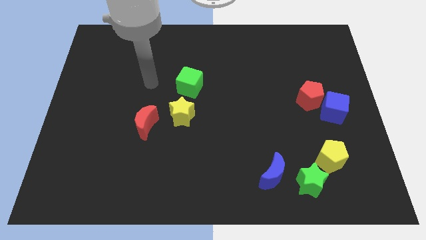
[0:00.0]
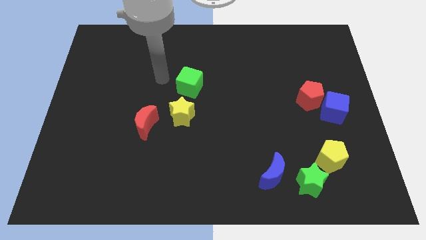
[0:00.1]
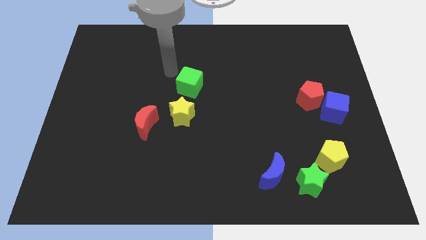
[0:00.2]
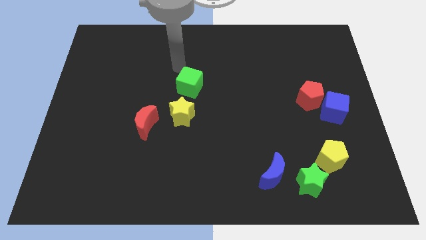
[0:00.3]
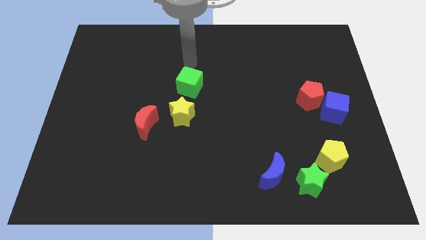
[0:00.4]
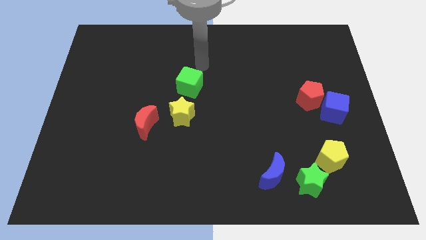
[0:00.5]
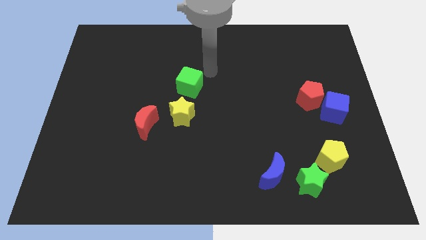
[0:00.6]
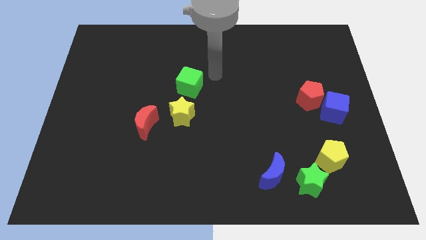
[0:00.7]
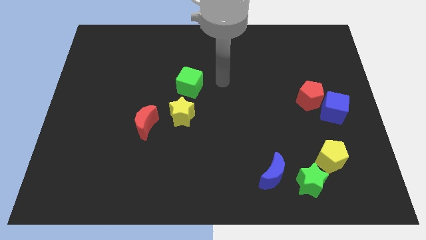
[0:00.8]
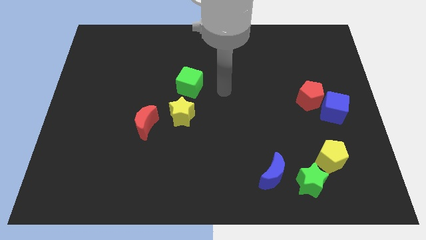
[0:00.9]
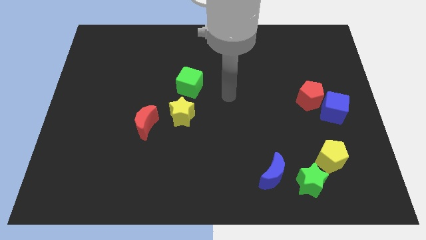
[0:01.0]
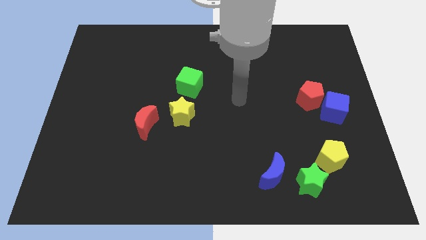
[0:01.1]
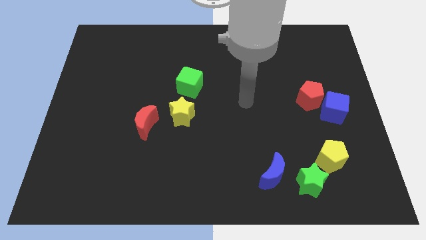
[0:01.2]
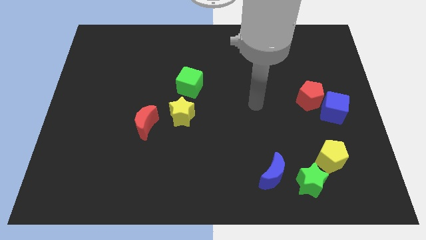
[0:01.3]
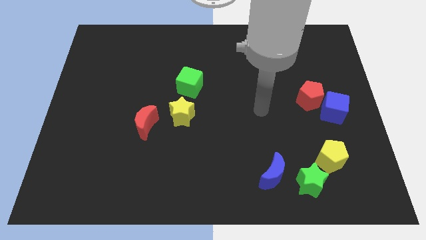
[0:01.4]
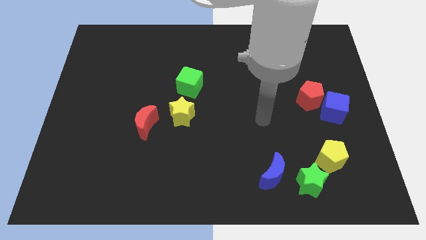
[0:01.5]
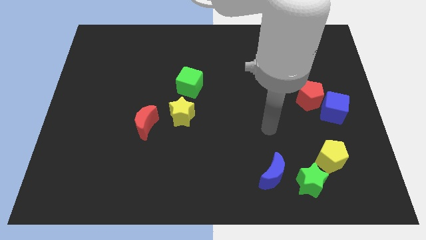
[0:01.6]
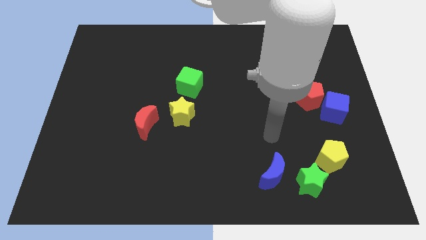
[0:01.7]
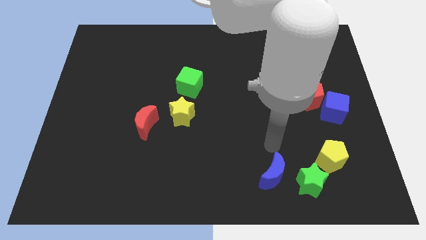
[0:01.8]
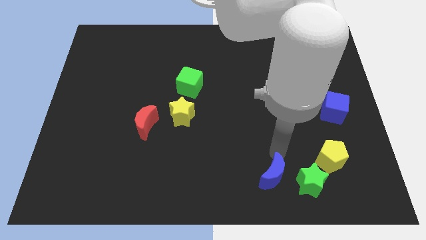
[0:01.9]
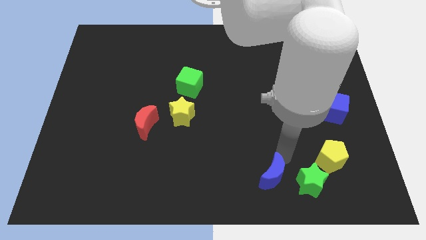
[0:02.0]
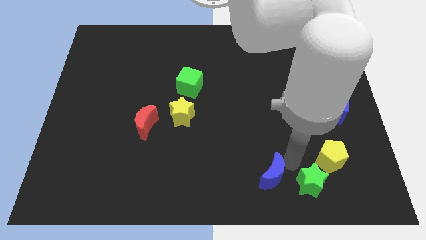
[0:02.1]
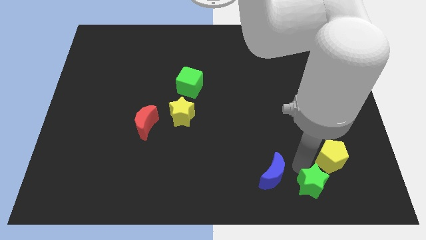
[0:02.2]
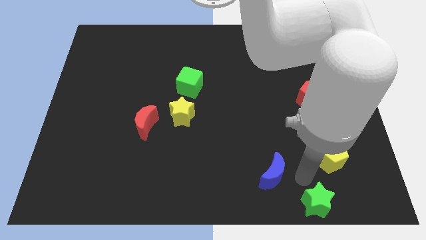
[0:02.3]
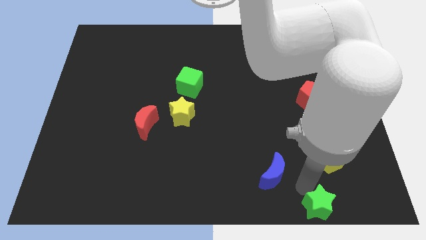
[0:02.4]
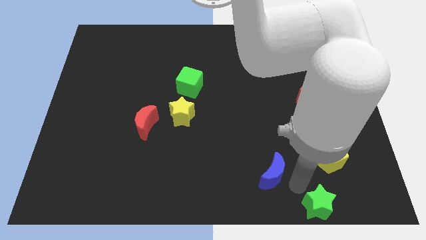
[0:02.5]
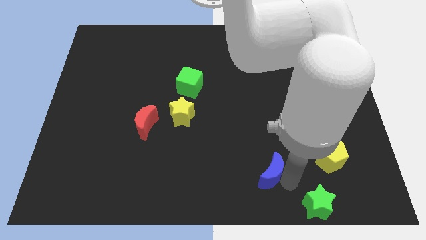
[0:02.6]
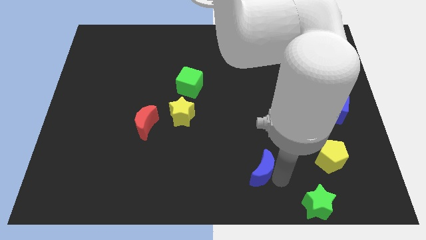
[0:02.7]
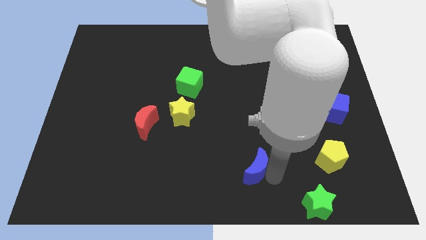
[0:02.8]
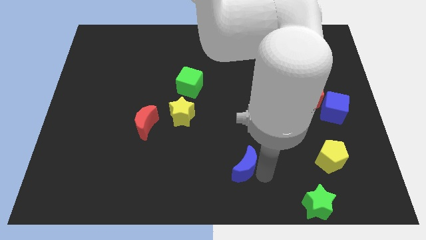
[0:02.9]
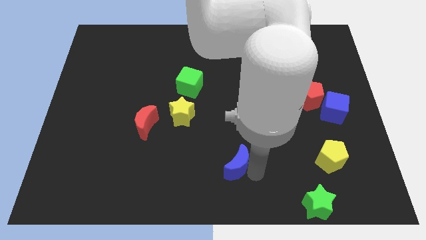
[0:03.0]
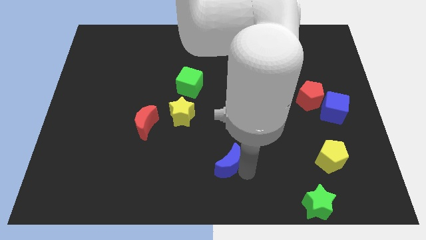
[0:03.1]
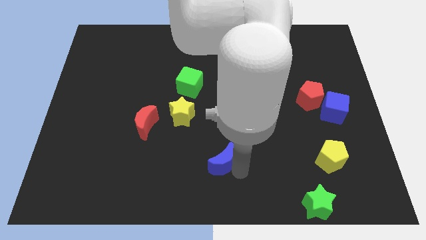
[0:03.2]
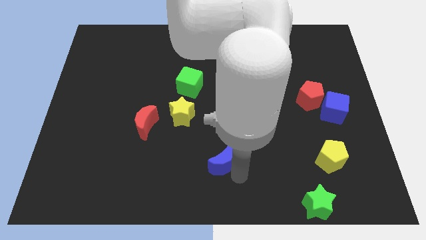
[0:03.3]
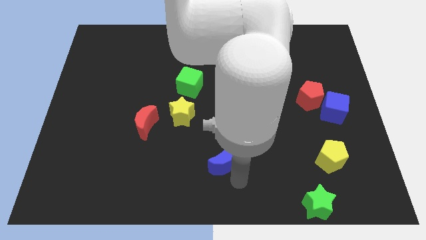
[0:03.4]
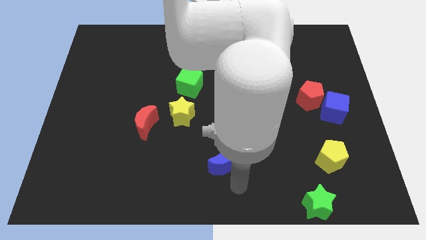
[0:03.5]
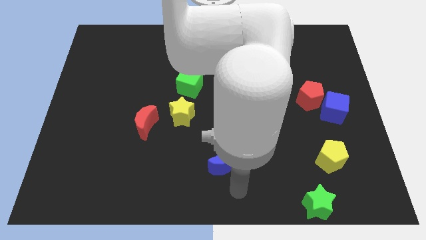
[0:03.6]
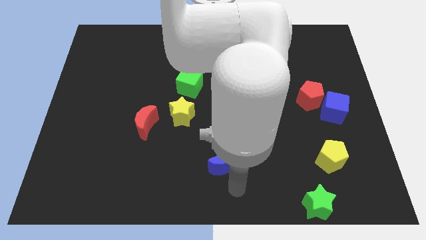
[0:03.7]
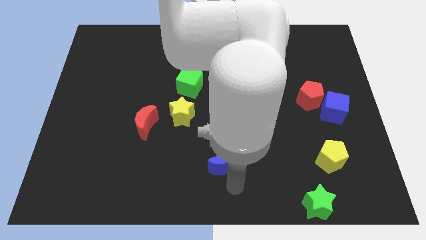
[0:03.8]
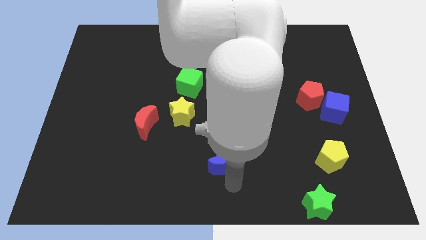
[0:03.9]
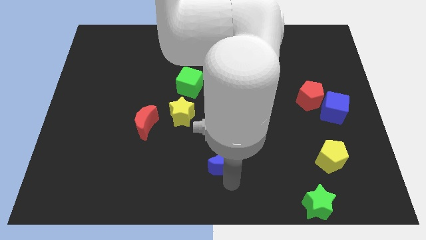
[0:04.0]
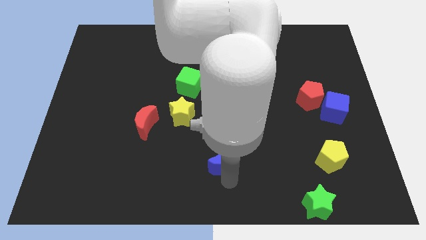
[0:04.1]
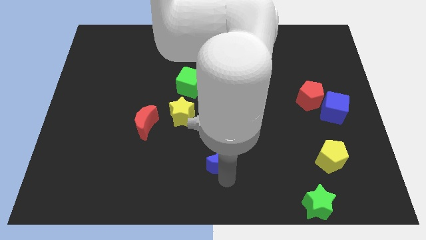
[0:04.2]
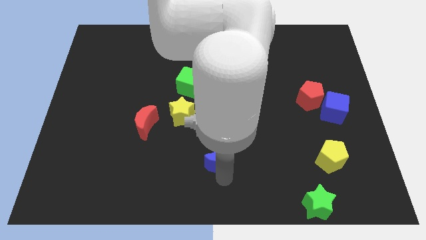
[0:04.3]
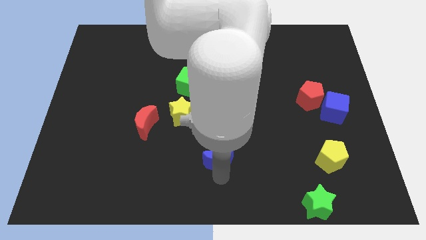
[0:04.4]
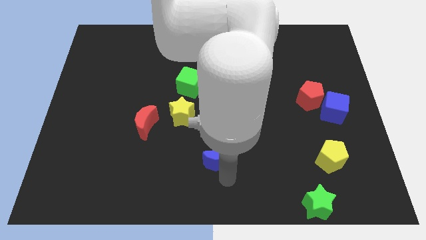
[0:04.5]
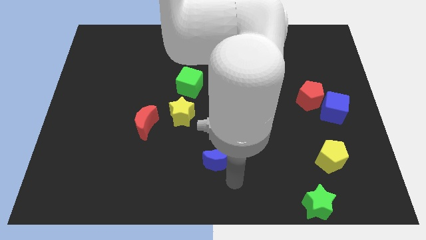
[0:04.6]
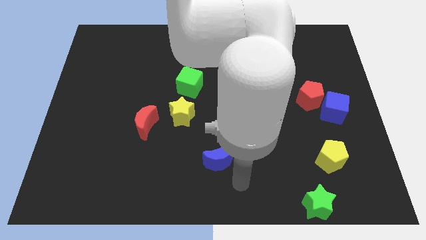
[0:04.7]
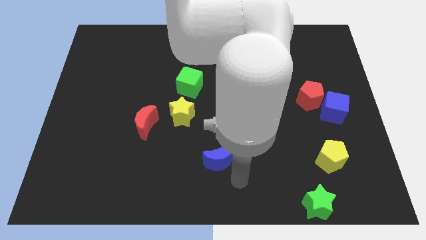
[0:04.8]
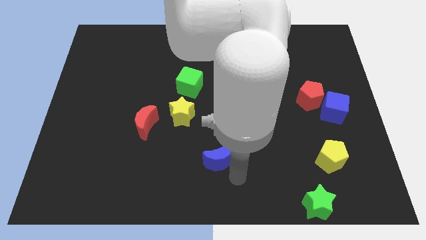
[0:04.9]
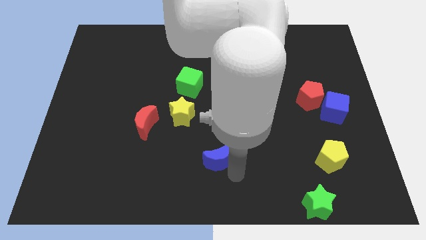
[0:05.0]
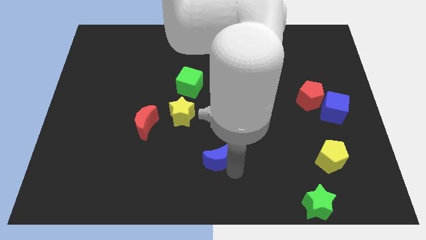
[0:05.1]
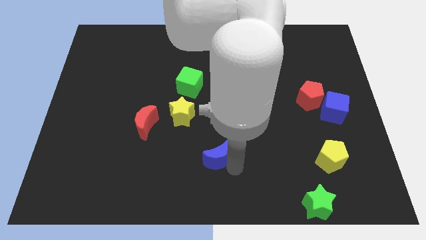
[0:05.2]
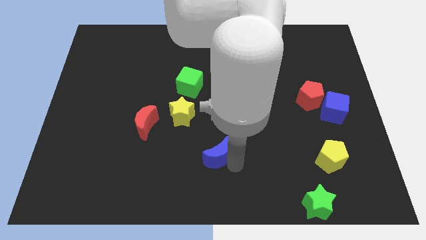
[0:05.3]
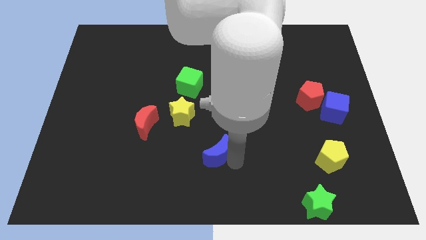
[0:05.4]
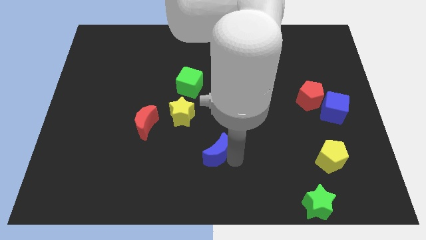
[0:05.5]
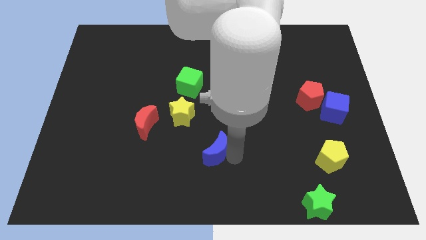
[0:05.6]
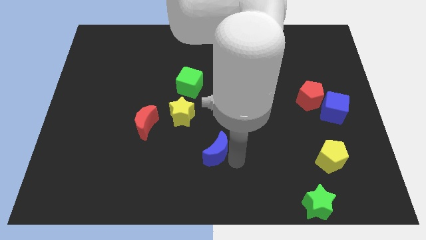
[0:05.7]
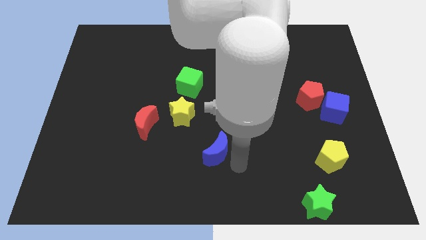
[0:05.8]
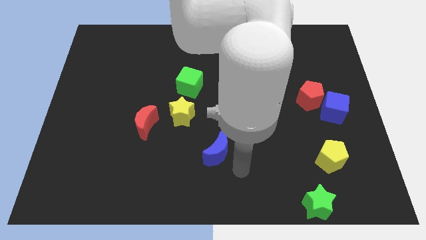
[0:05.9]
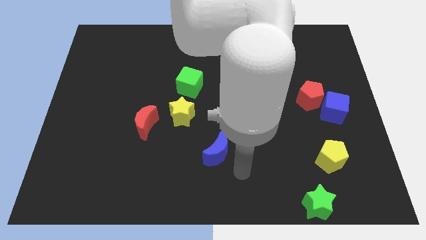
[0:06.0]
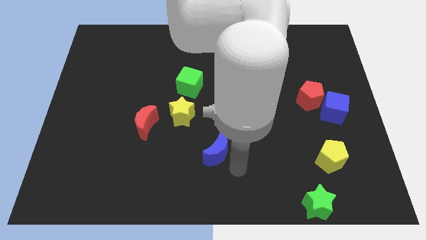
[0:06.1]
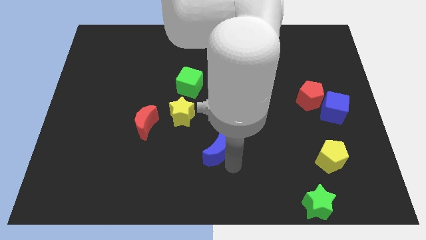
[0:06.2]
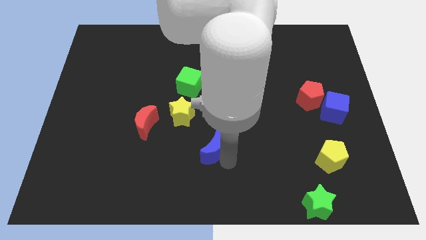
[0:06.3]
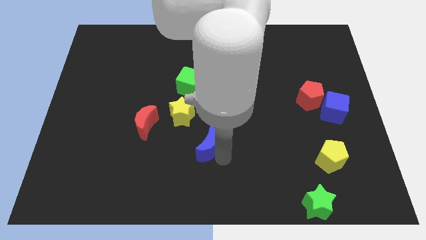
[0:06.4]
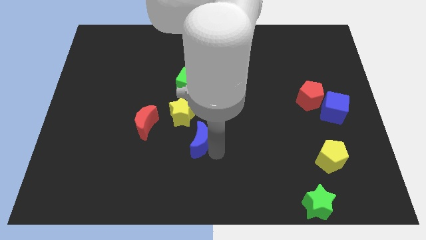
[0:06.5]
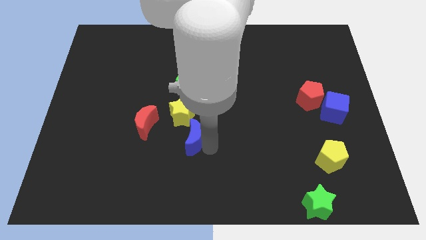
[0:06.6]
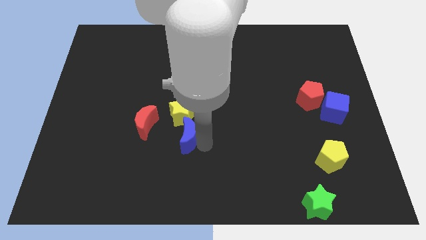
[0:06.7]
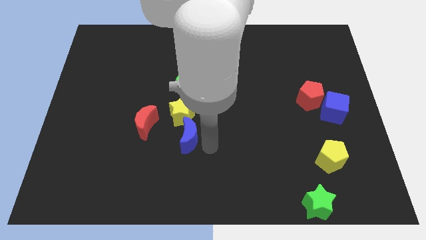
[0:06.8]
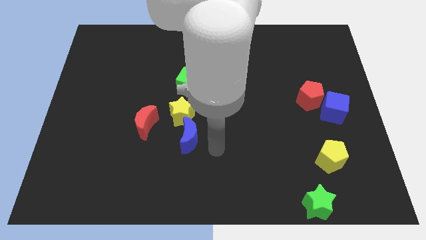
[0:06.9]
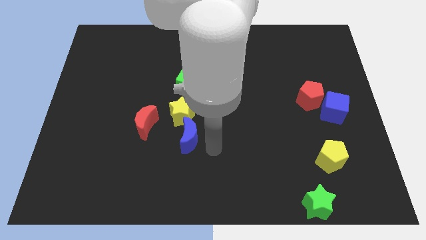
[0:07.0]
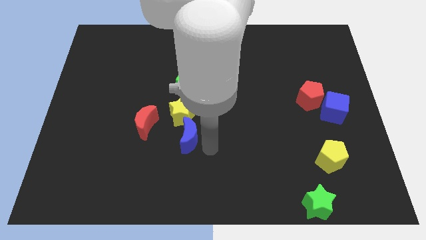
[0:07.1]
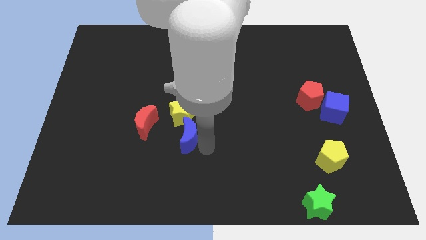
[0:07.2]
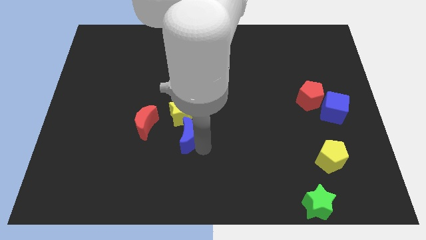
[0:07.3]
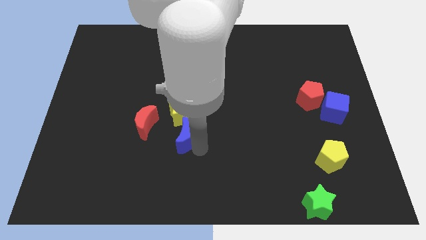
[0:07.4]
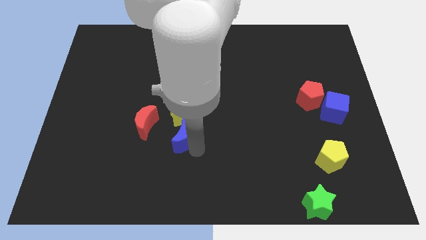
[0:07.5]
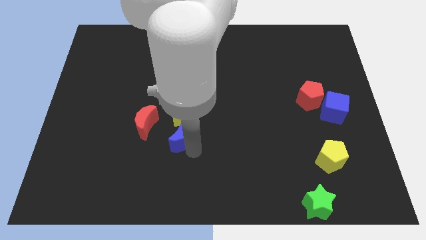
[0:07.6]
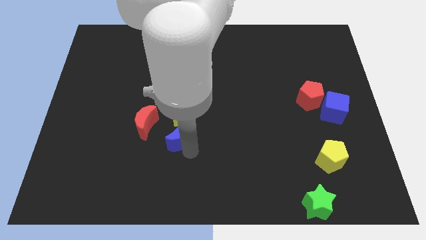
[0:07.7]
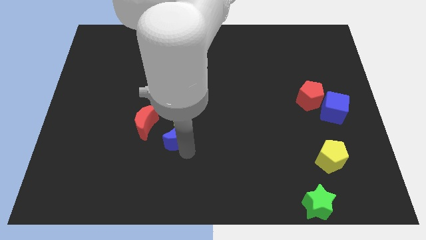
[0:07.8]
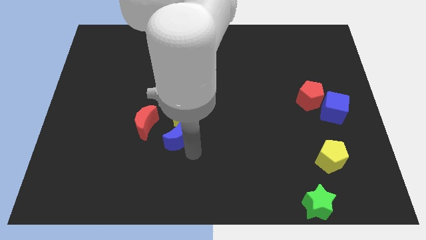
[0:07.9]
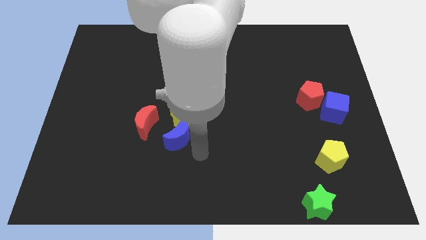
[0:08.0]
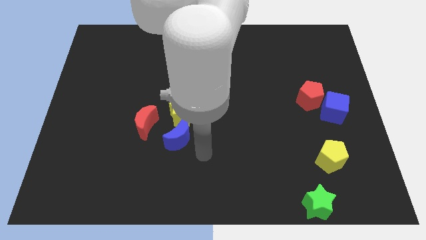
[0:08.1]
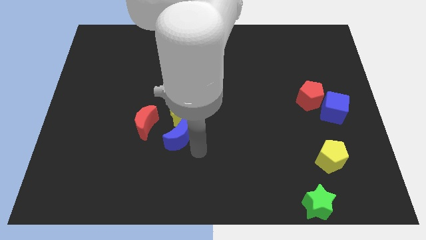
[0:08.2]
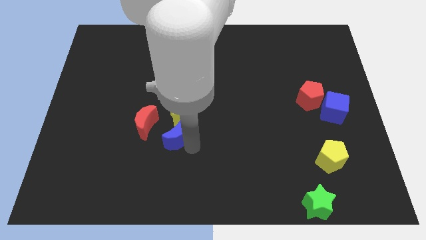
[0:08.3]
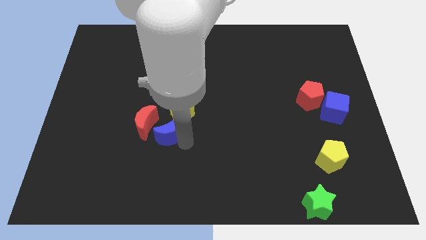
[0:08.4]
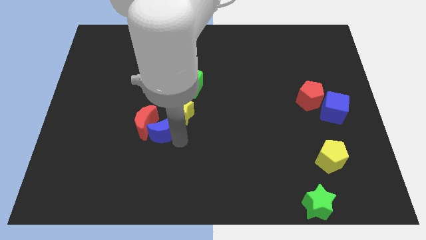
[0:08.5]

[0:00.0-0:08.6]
put the blue moon to the red moon
